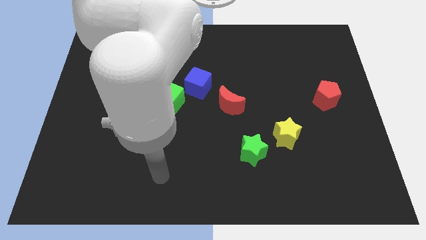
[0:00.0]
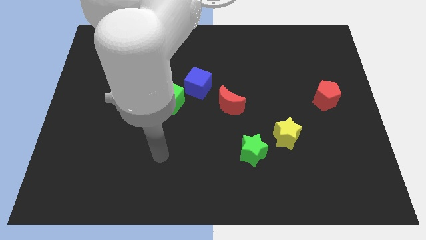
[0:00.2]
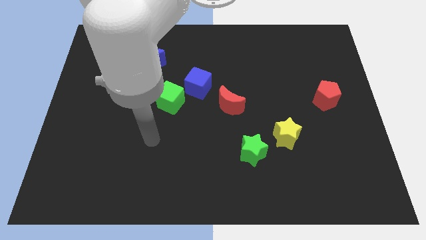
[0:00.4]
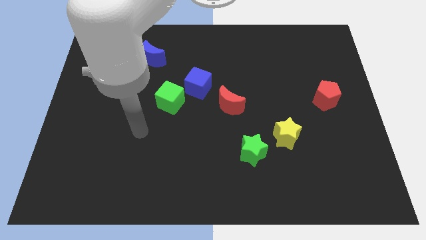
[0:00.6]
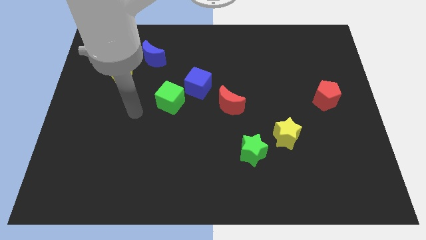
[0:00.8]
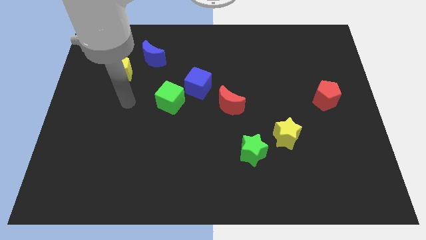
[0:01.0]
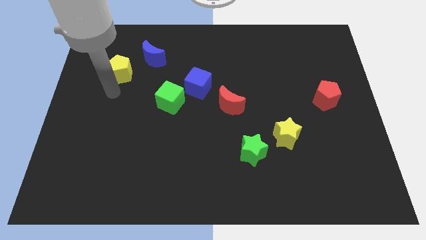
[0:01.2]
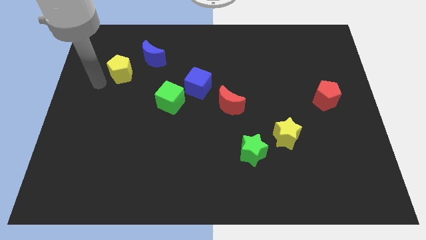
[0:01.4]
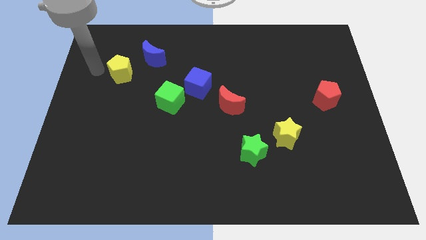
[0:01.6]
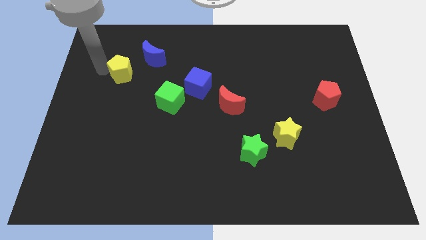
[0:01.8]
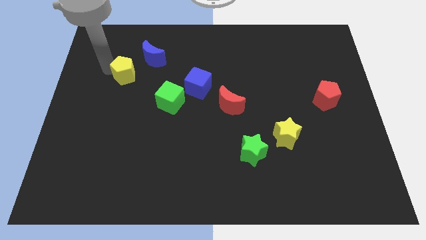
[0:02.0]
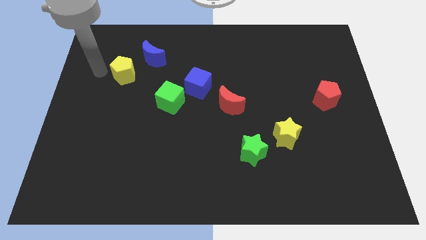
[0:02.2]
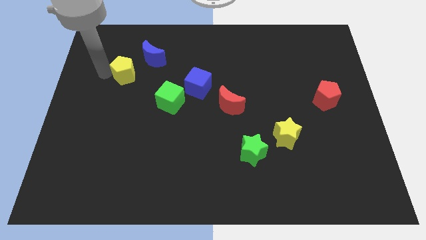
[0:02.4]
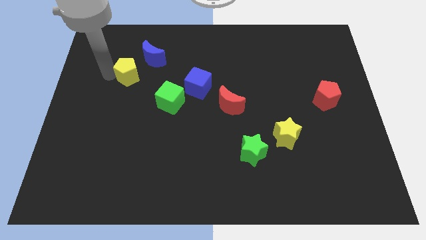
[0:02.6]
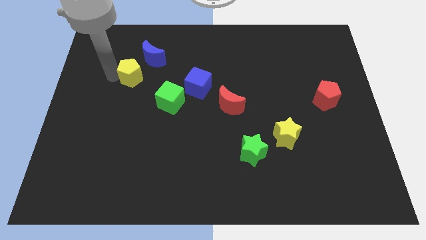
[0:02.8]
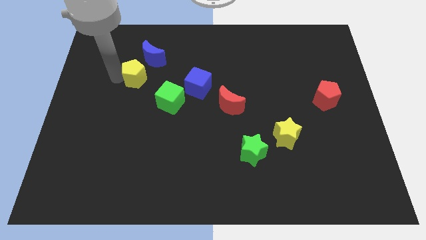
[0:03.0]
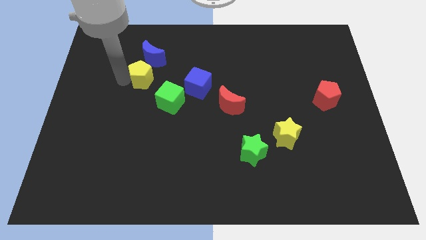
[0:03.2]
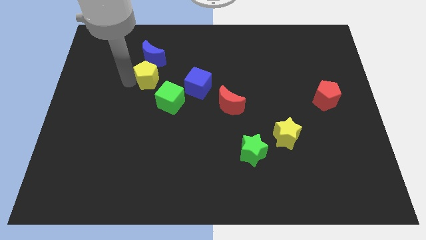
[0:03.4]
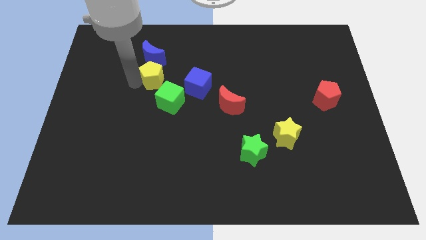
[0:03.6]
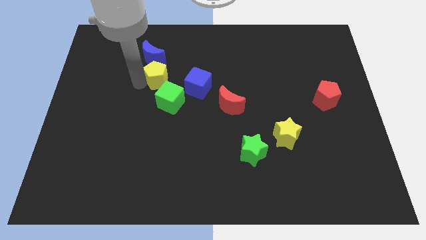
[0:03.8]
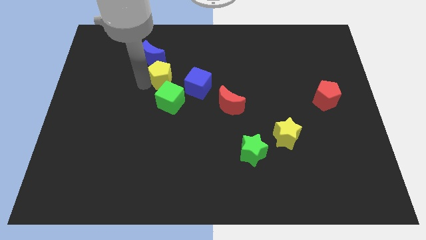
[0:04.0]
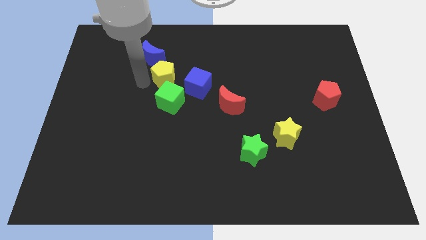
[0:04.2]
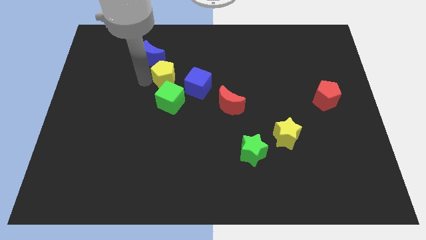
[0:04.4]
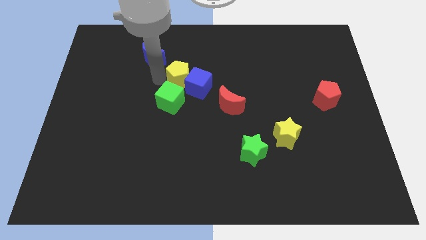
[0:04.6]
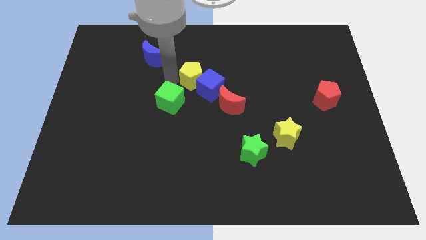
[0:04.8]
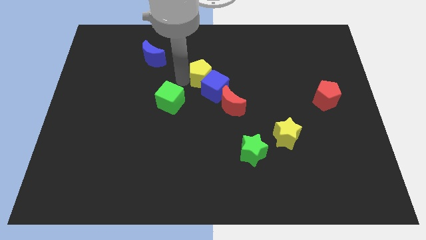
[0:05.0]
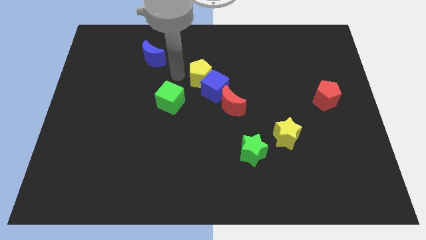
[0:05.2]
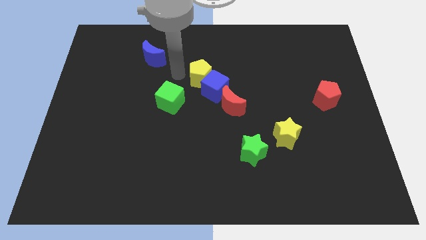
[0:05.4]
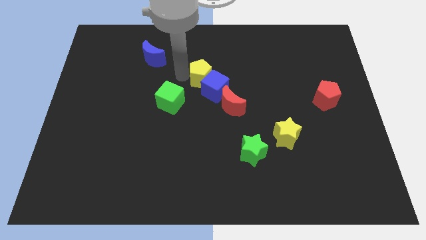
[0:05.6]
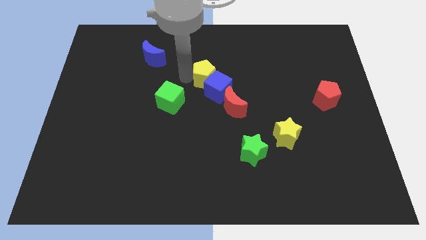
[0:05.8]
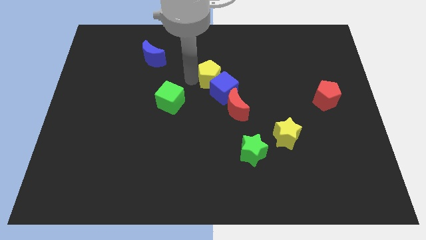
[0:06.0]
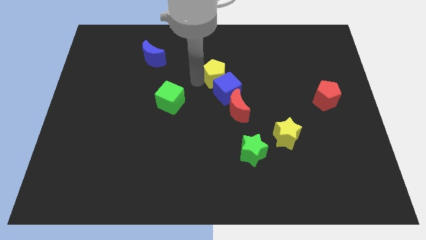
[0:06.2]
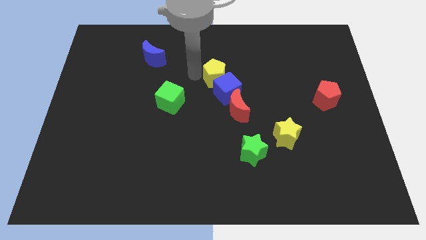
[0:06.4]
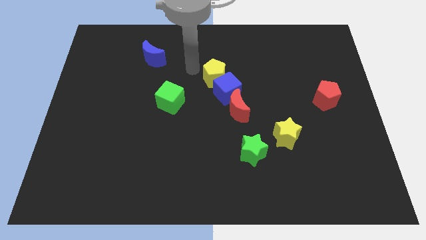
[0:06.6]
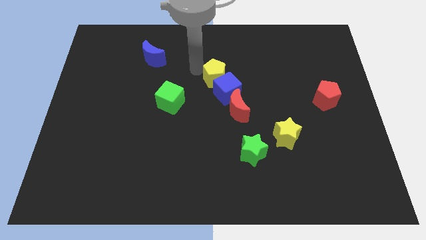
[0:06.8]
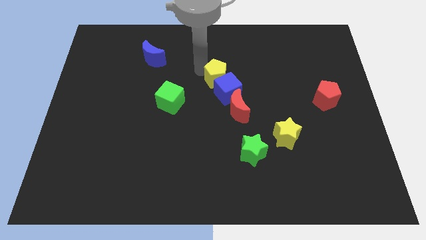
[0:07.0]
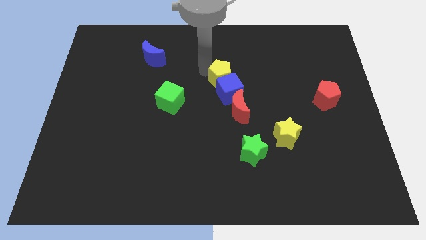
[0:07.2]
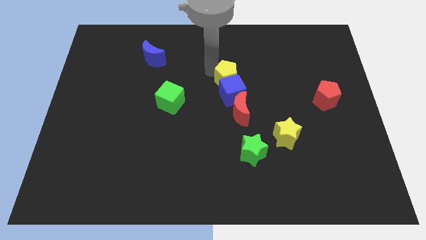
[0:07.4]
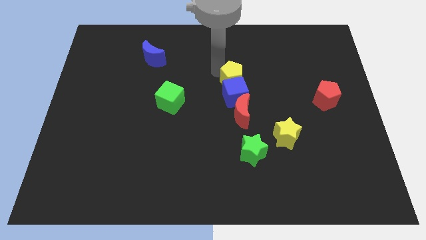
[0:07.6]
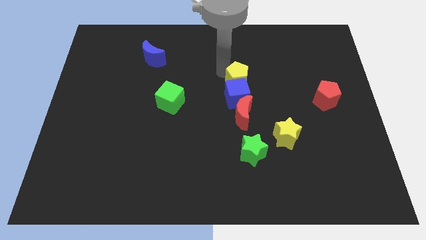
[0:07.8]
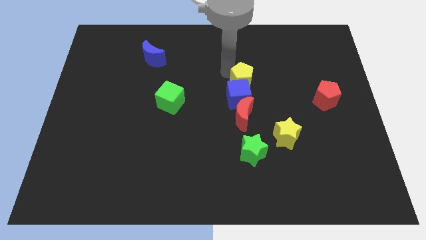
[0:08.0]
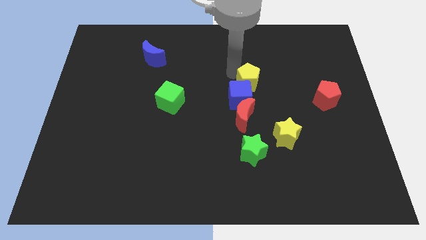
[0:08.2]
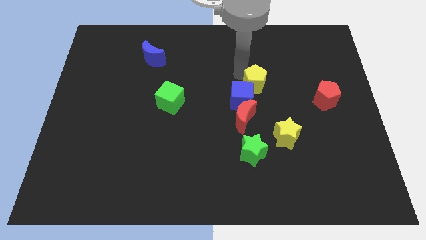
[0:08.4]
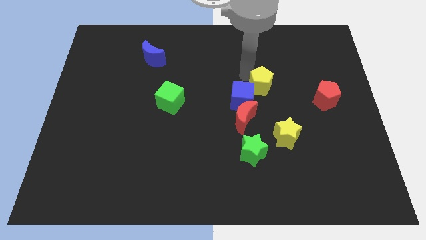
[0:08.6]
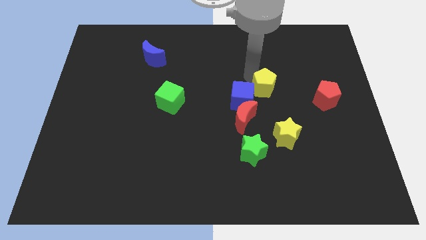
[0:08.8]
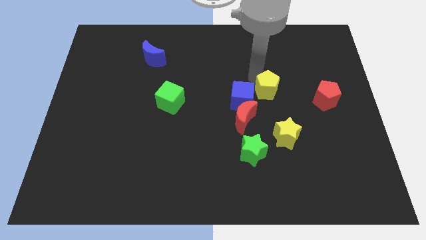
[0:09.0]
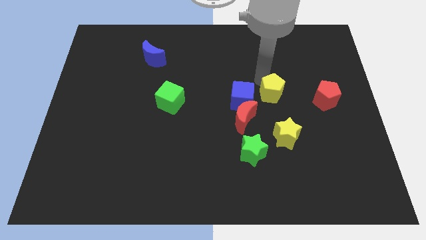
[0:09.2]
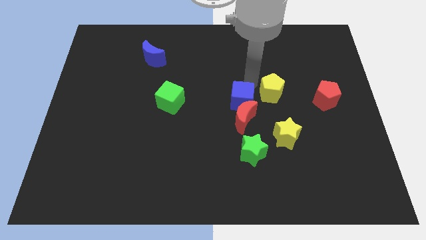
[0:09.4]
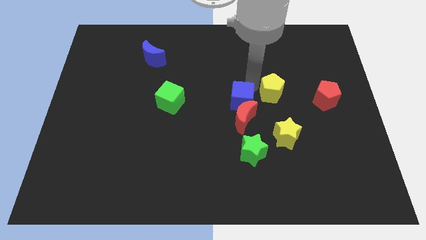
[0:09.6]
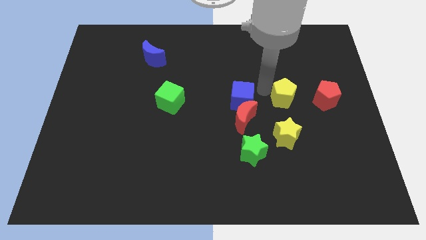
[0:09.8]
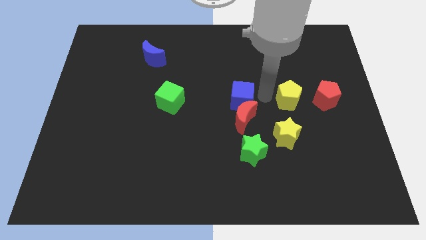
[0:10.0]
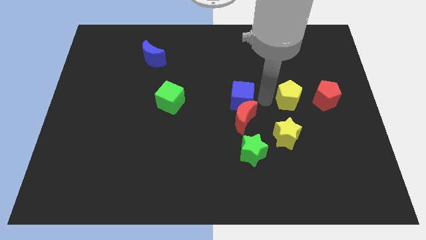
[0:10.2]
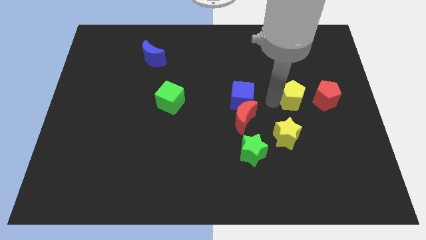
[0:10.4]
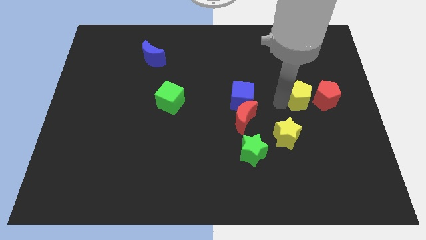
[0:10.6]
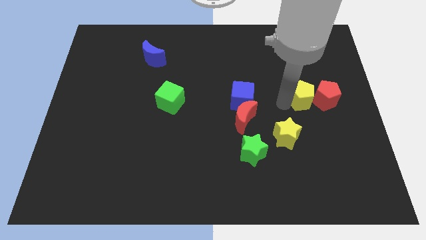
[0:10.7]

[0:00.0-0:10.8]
push the yellow pentagon close to the red pentagon

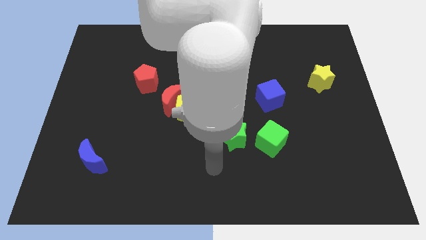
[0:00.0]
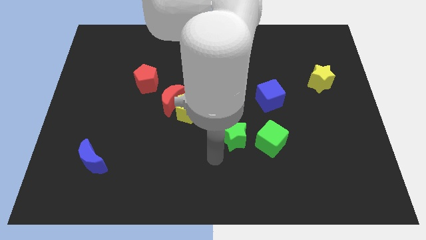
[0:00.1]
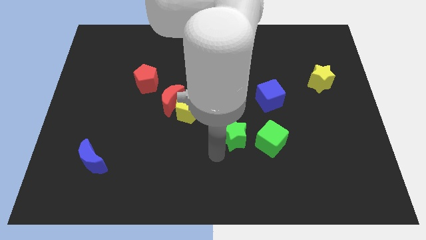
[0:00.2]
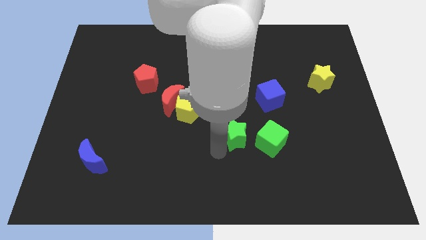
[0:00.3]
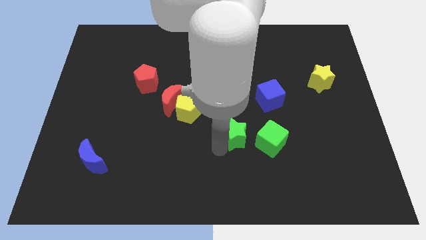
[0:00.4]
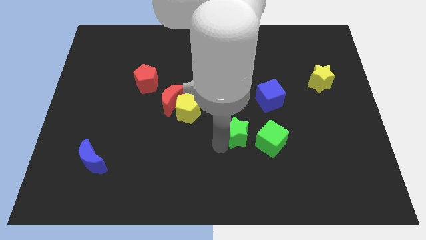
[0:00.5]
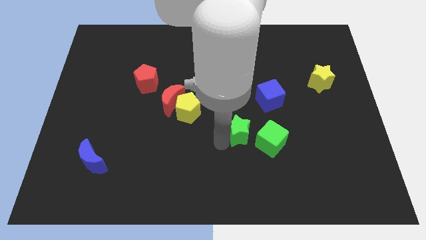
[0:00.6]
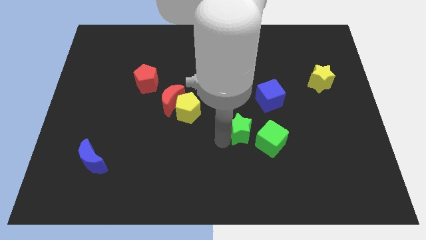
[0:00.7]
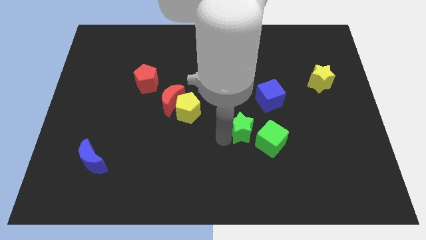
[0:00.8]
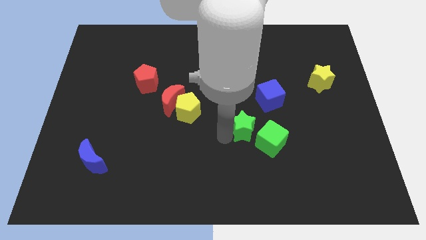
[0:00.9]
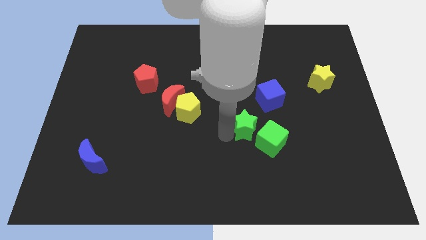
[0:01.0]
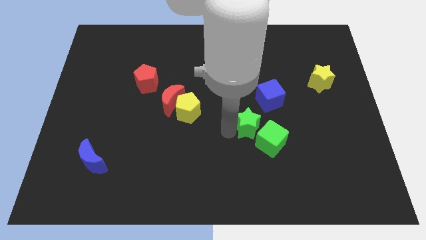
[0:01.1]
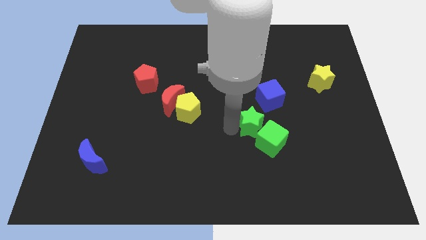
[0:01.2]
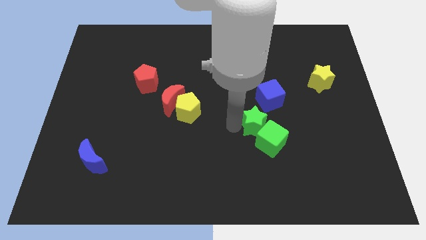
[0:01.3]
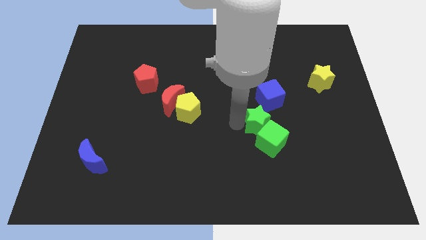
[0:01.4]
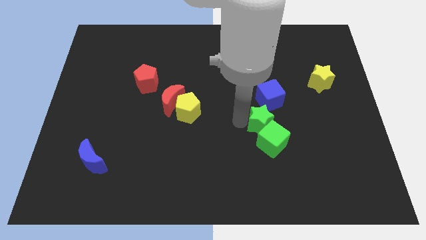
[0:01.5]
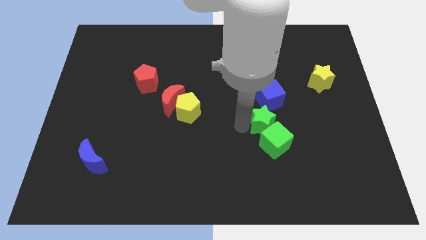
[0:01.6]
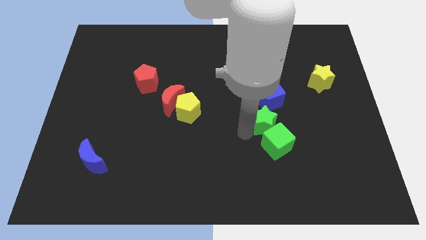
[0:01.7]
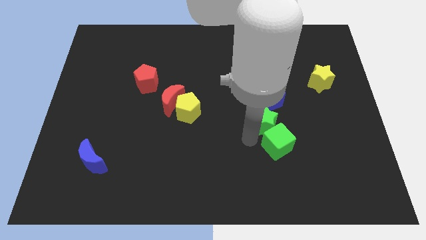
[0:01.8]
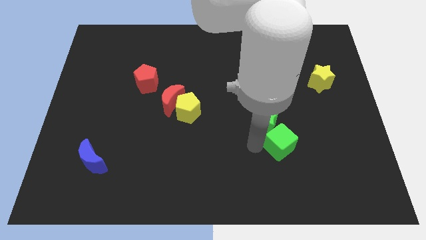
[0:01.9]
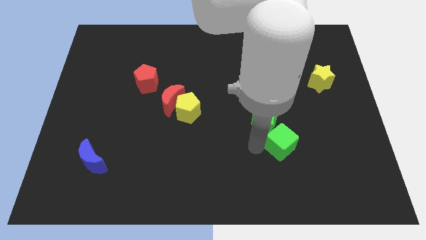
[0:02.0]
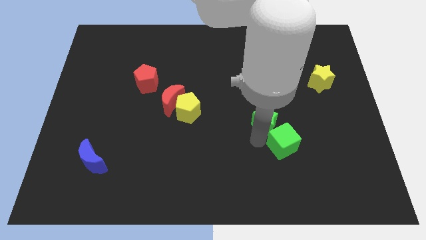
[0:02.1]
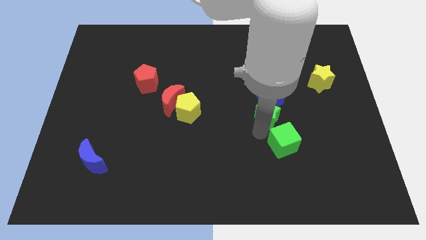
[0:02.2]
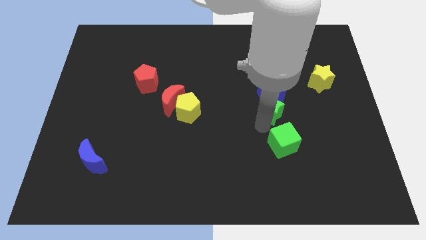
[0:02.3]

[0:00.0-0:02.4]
slide the green star next to the blue cube
